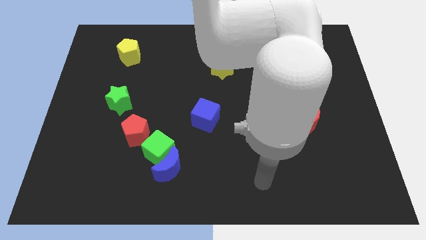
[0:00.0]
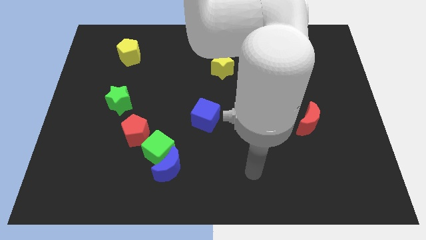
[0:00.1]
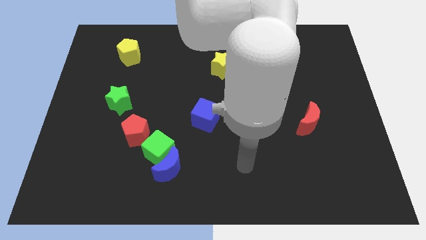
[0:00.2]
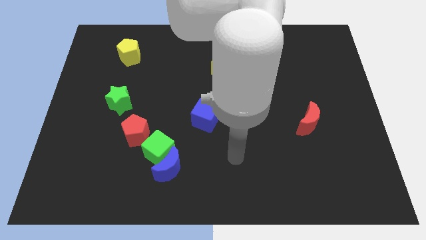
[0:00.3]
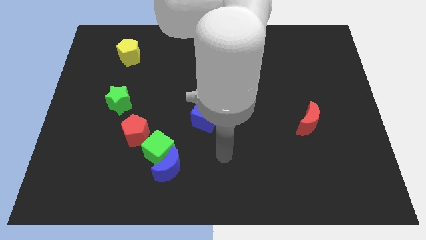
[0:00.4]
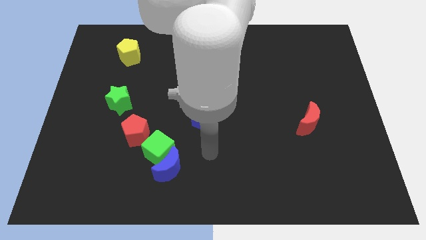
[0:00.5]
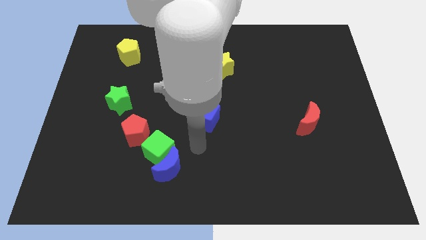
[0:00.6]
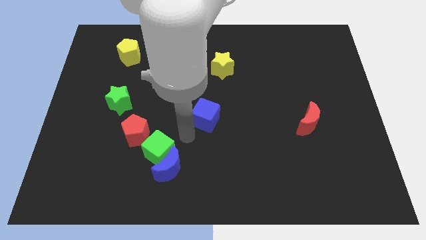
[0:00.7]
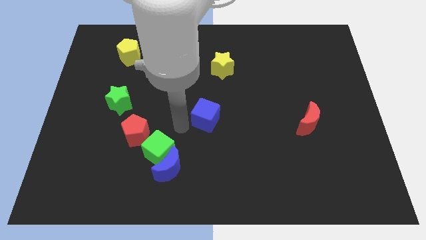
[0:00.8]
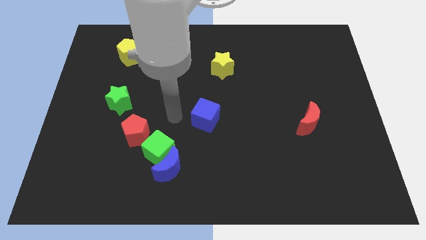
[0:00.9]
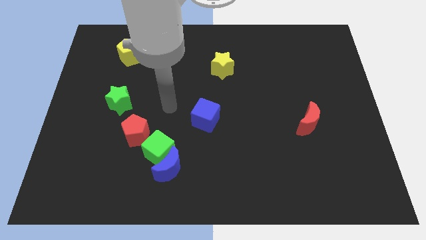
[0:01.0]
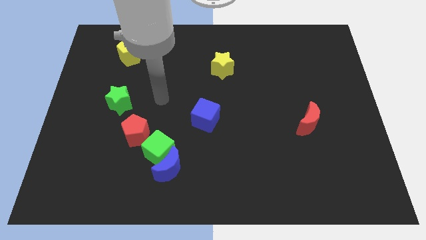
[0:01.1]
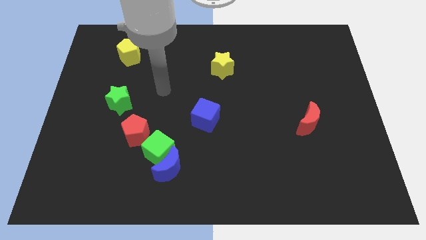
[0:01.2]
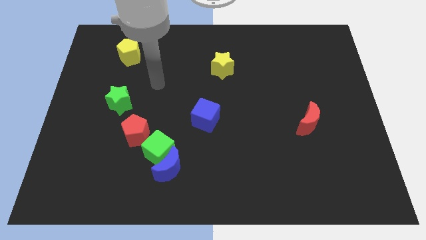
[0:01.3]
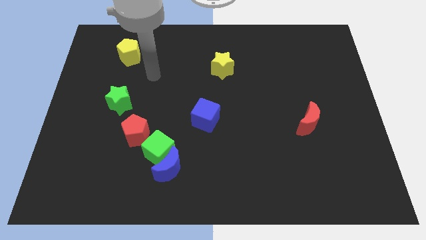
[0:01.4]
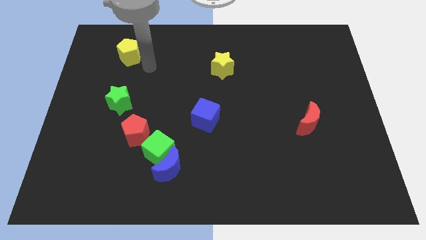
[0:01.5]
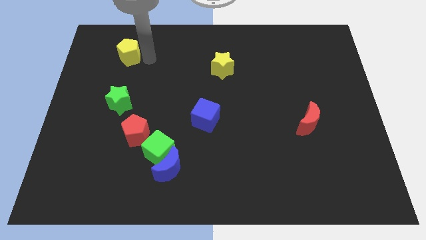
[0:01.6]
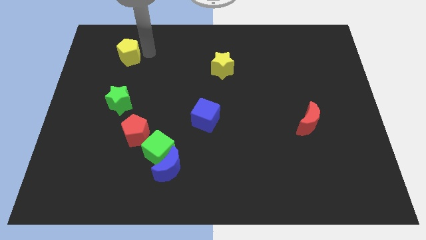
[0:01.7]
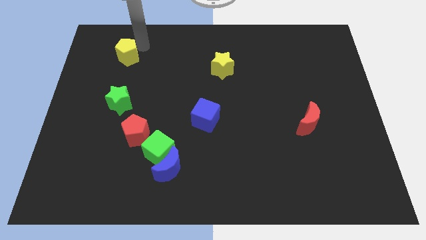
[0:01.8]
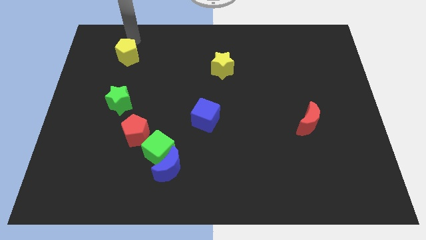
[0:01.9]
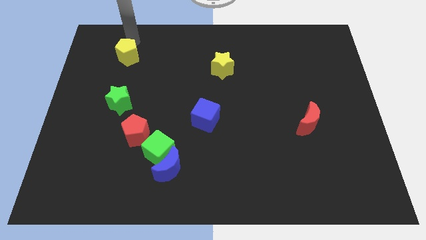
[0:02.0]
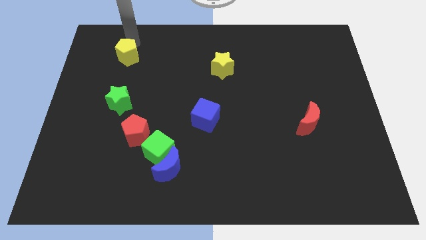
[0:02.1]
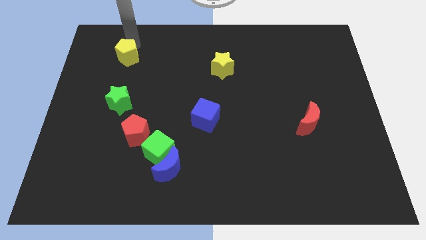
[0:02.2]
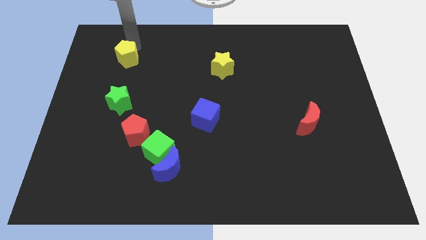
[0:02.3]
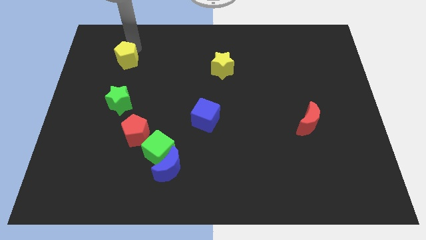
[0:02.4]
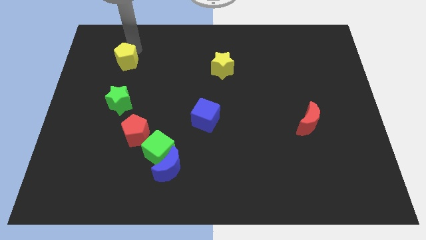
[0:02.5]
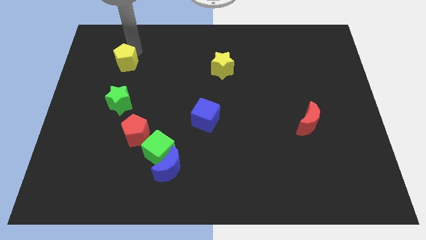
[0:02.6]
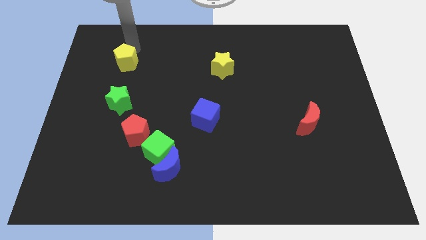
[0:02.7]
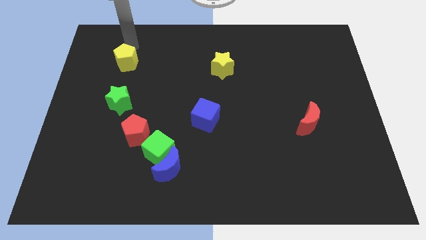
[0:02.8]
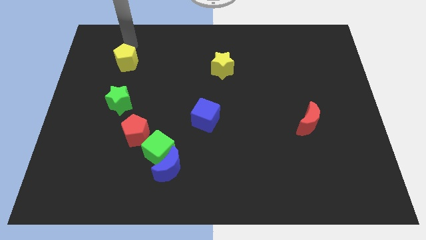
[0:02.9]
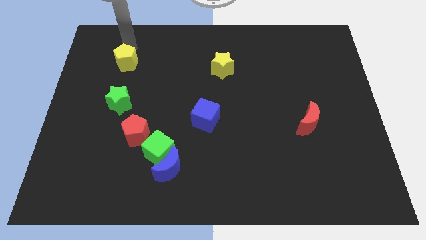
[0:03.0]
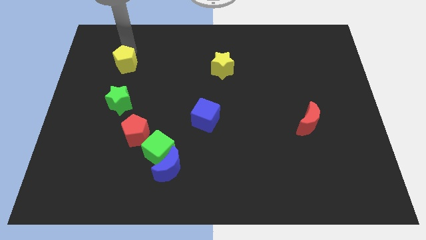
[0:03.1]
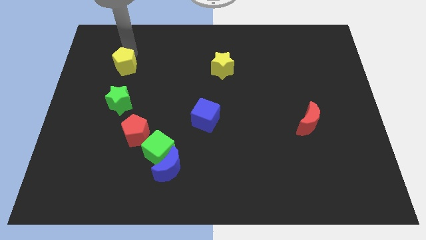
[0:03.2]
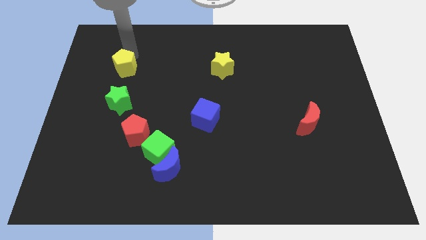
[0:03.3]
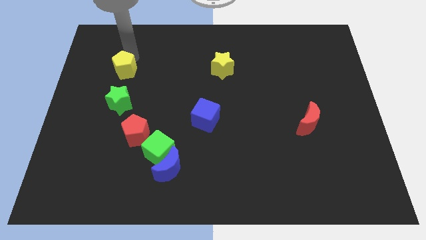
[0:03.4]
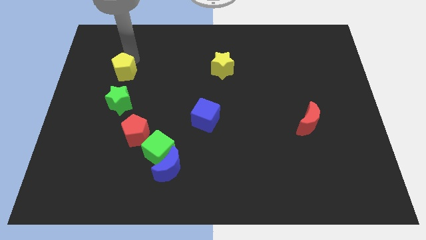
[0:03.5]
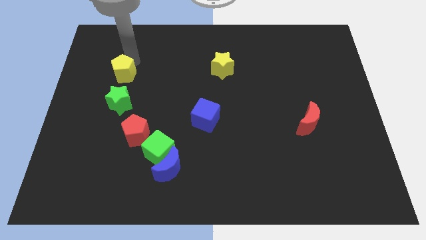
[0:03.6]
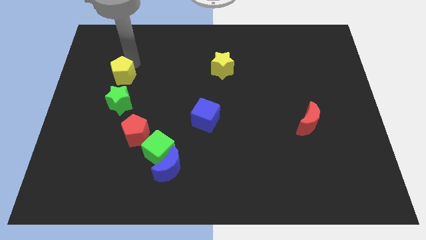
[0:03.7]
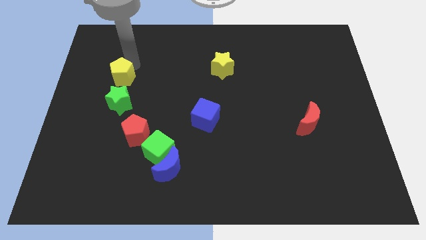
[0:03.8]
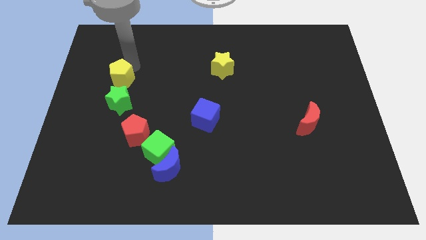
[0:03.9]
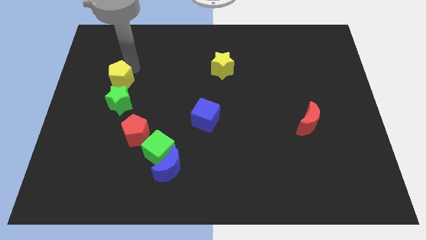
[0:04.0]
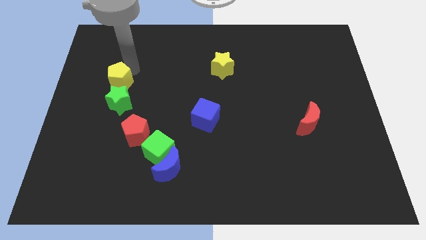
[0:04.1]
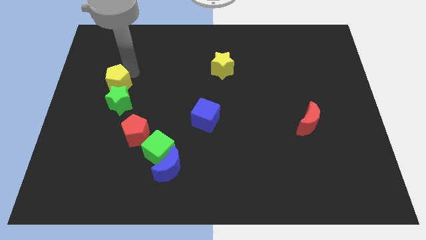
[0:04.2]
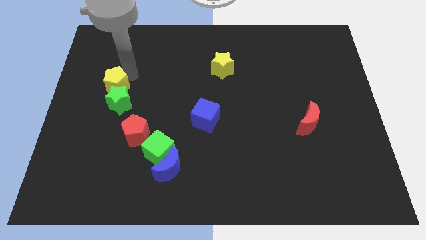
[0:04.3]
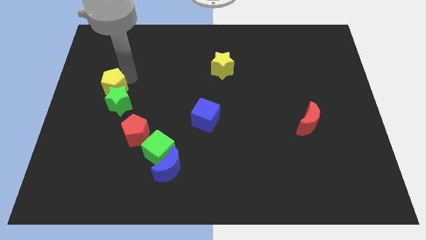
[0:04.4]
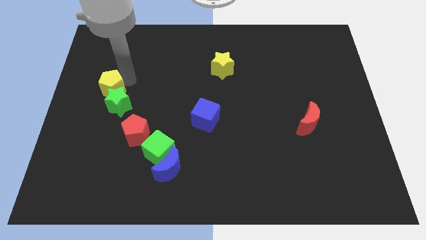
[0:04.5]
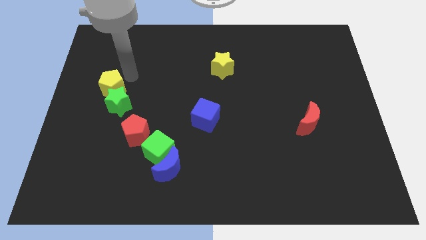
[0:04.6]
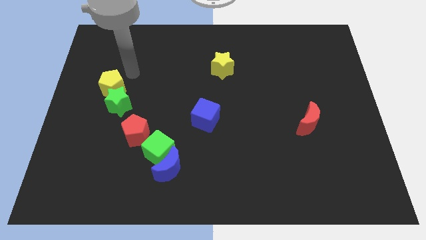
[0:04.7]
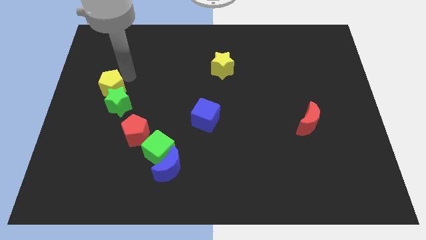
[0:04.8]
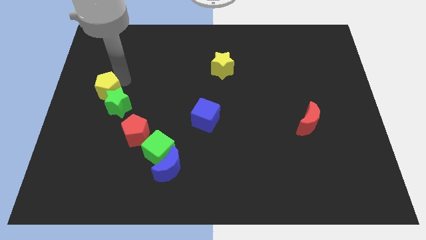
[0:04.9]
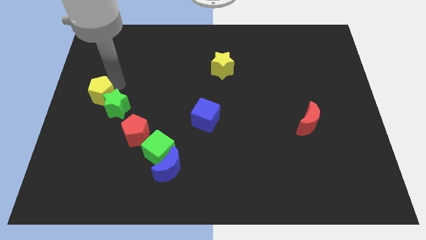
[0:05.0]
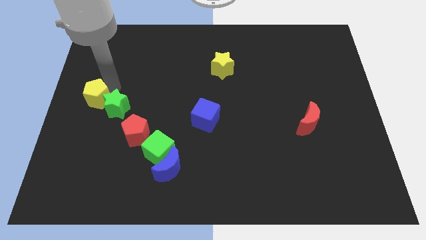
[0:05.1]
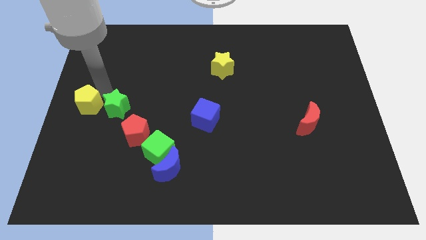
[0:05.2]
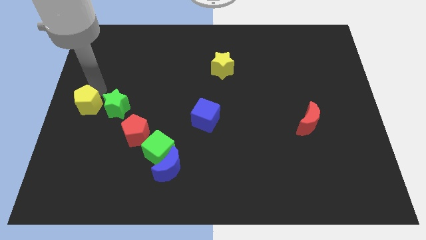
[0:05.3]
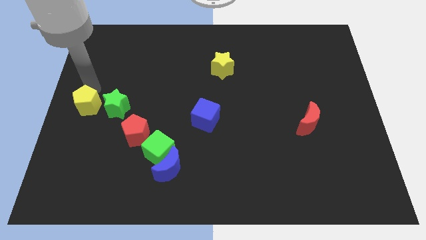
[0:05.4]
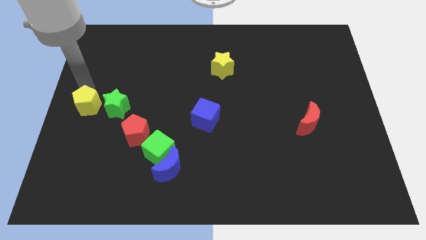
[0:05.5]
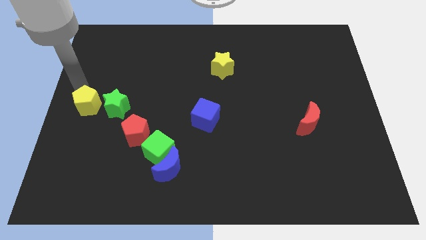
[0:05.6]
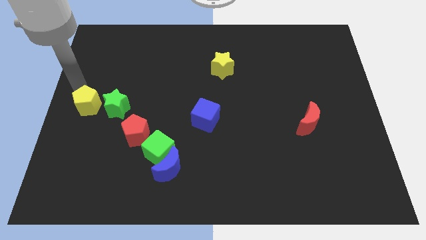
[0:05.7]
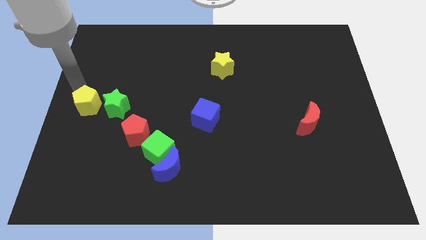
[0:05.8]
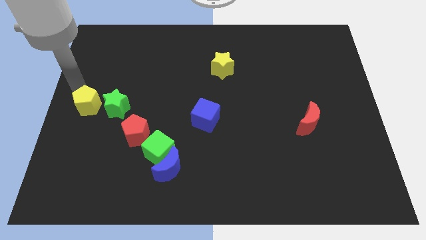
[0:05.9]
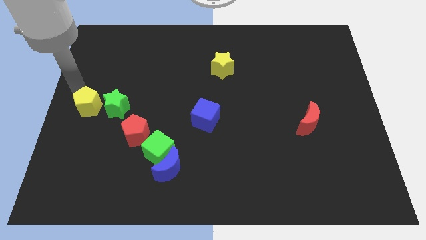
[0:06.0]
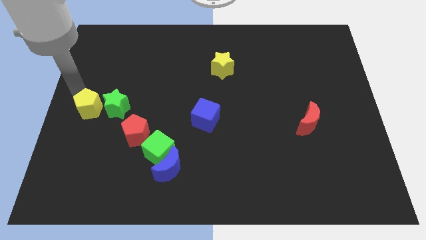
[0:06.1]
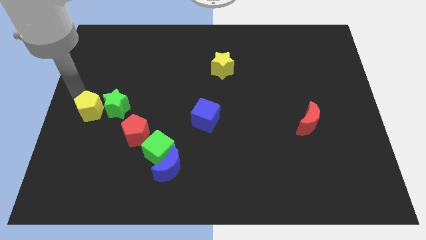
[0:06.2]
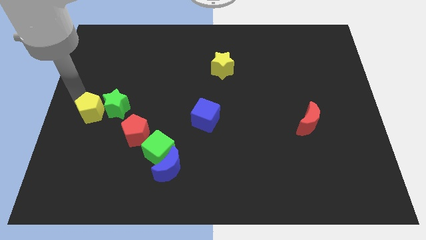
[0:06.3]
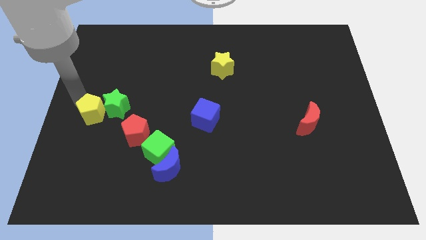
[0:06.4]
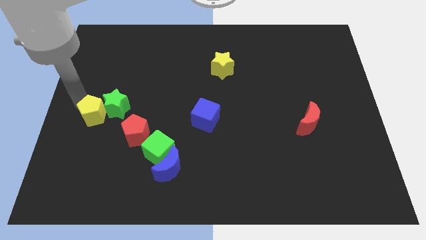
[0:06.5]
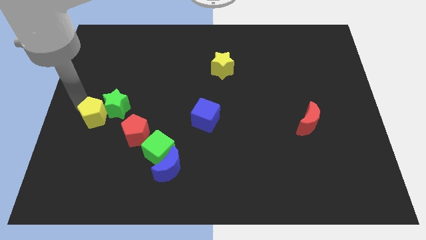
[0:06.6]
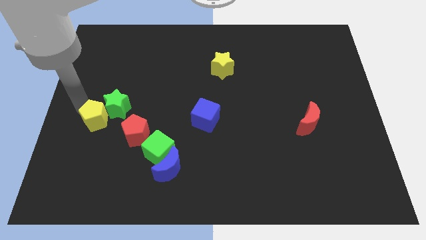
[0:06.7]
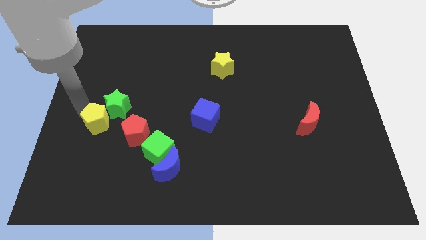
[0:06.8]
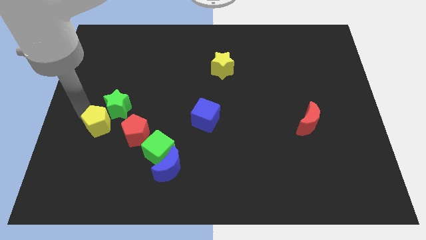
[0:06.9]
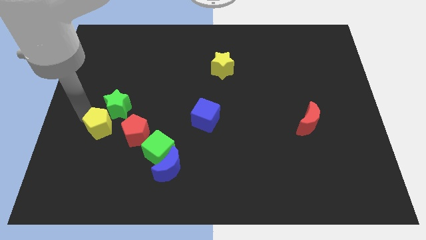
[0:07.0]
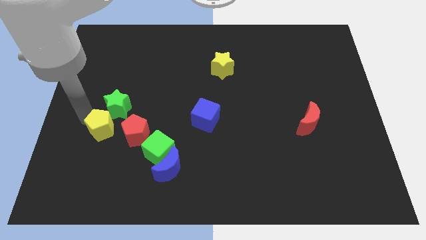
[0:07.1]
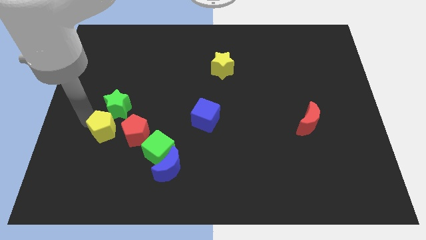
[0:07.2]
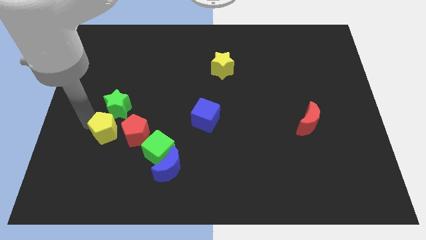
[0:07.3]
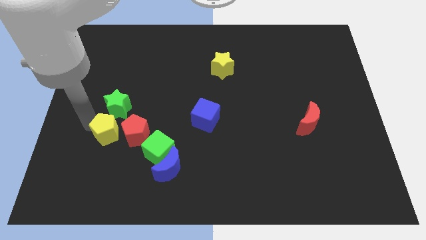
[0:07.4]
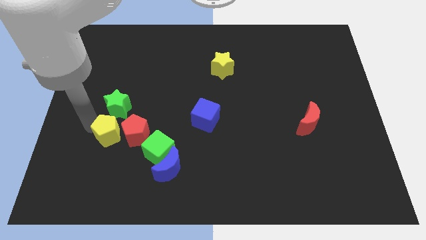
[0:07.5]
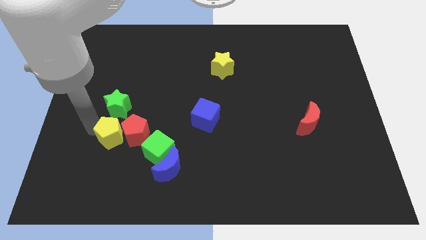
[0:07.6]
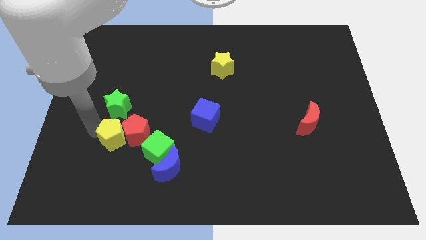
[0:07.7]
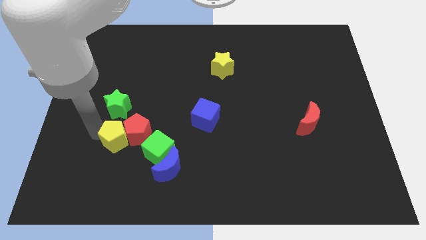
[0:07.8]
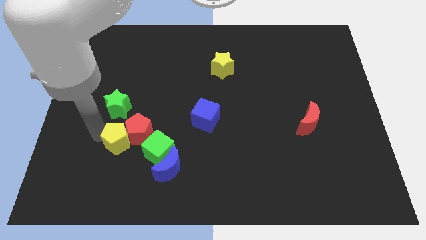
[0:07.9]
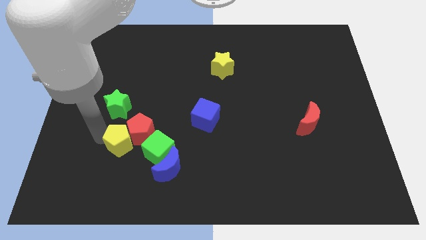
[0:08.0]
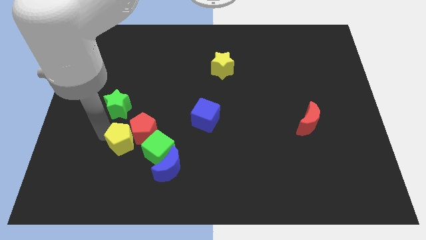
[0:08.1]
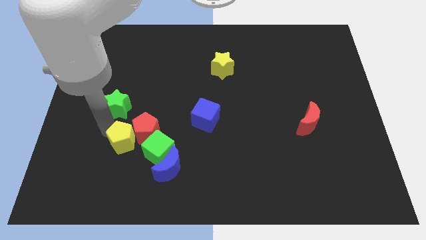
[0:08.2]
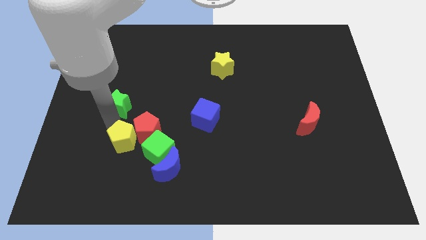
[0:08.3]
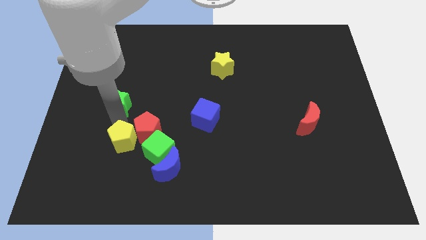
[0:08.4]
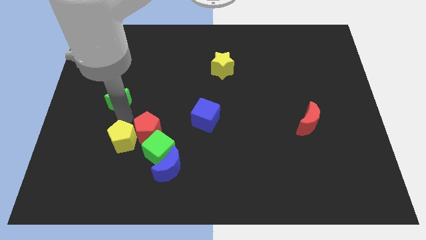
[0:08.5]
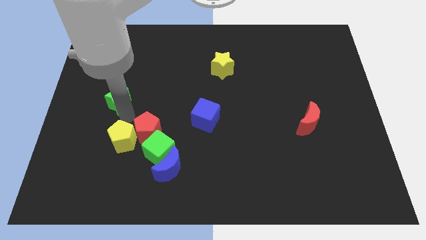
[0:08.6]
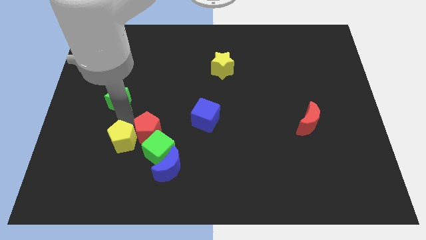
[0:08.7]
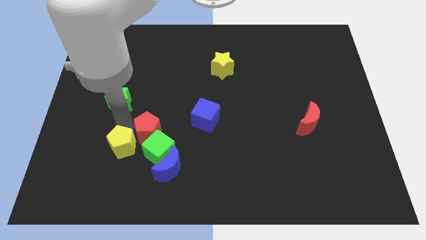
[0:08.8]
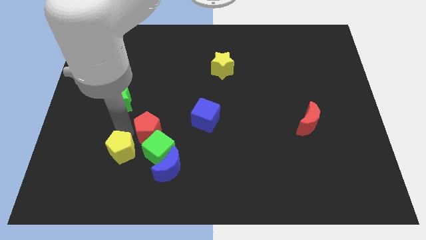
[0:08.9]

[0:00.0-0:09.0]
slide the yellow pentagon below the red pentagon
